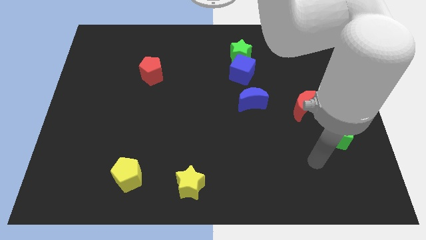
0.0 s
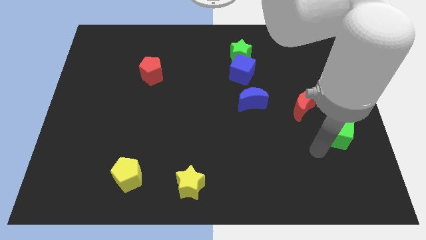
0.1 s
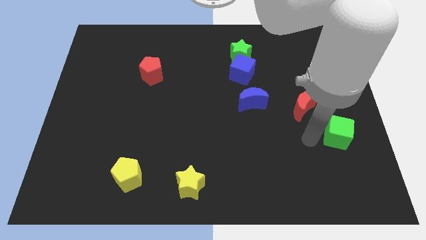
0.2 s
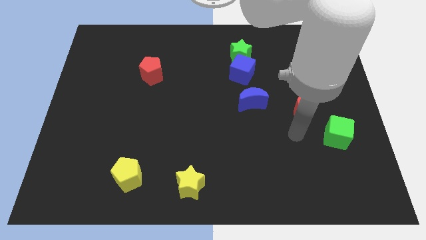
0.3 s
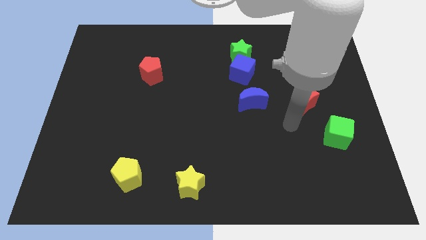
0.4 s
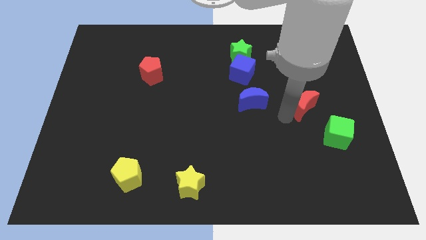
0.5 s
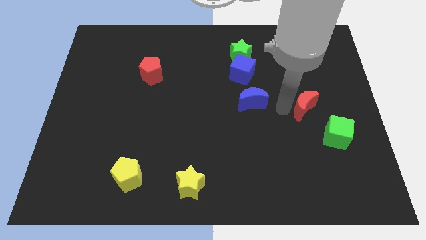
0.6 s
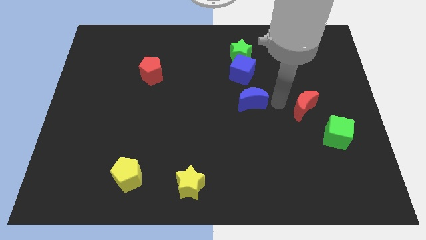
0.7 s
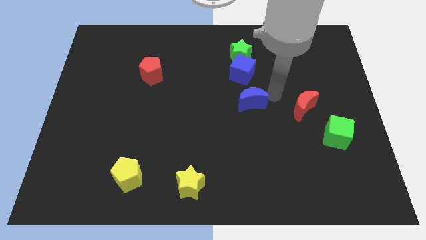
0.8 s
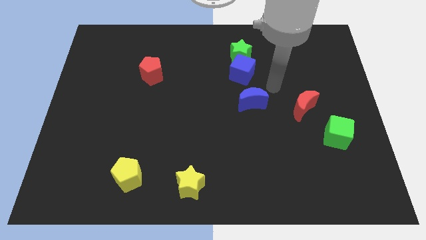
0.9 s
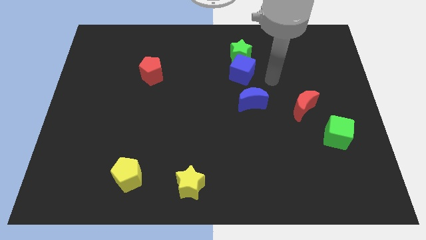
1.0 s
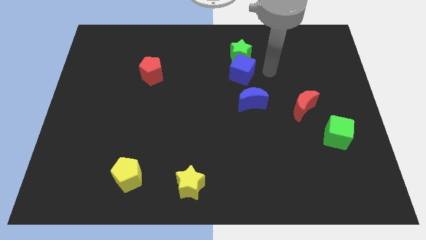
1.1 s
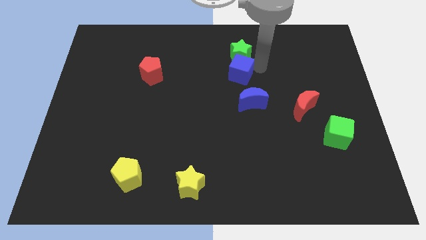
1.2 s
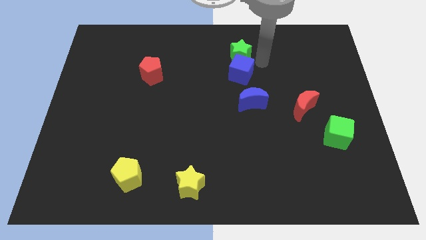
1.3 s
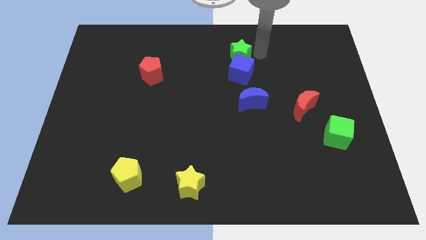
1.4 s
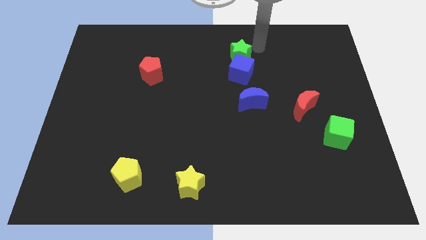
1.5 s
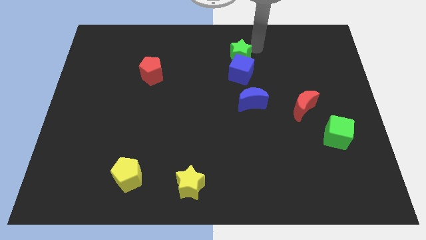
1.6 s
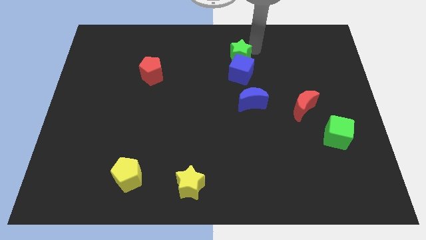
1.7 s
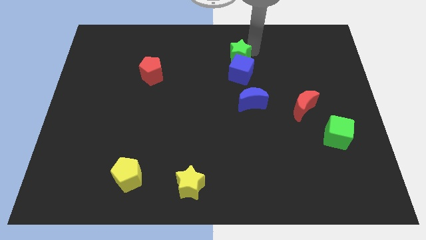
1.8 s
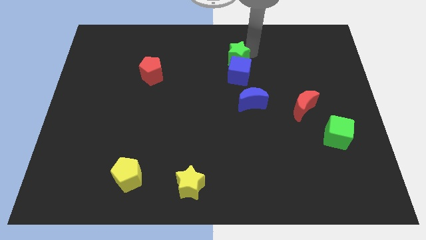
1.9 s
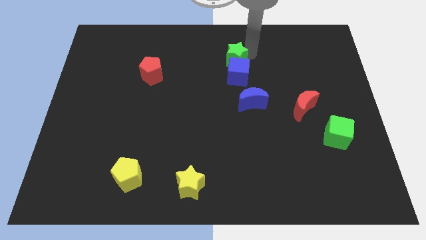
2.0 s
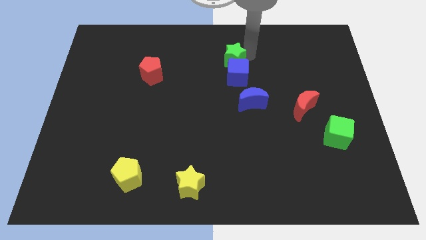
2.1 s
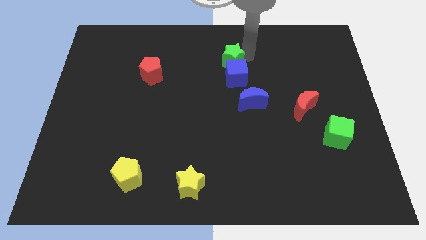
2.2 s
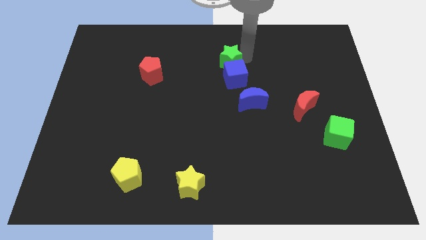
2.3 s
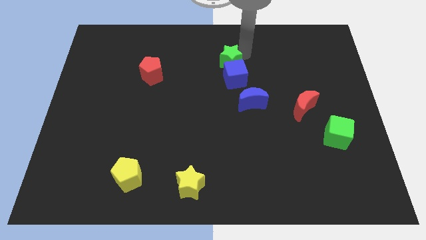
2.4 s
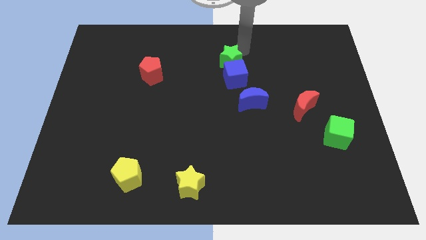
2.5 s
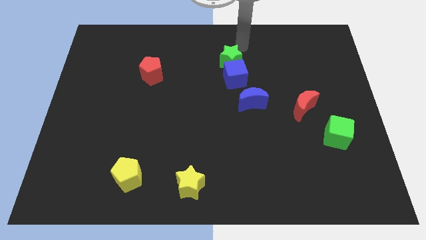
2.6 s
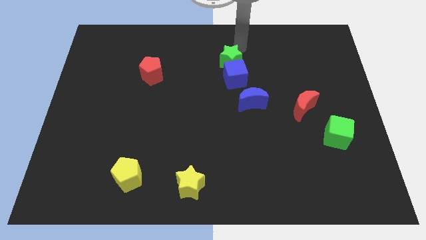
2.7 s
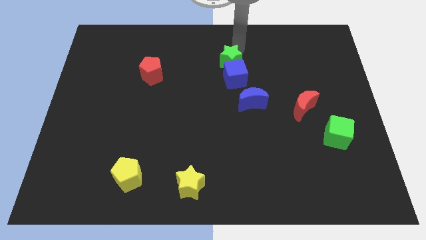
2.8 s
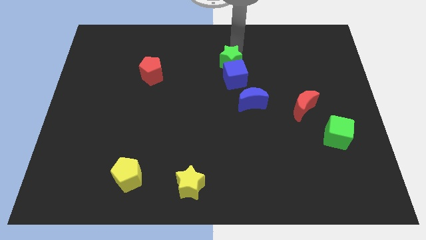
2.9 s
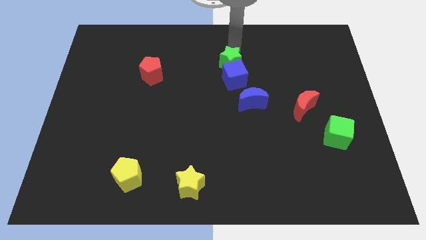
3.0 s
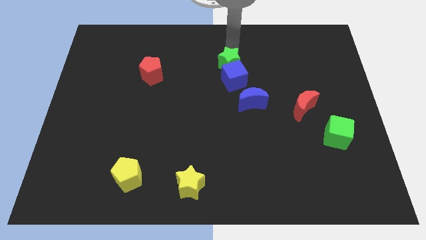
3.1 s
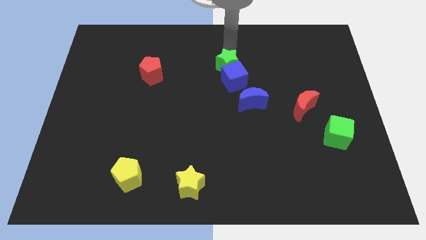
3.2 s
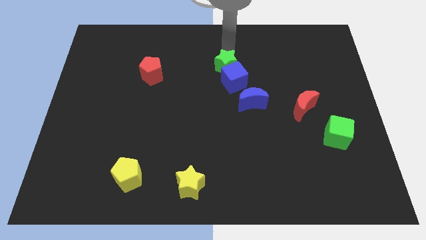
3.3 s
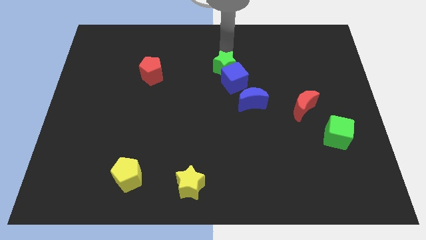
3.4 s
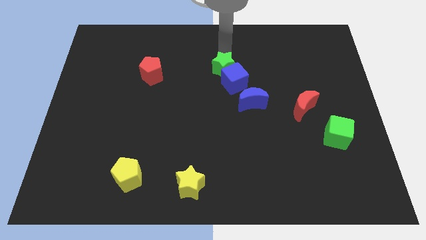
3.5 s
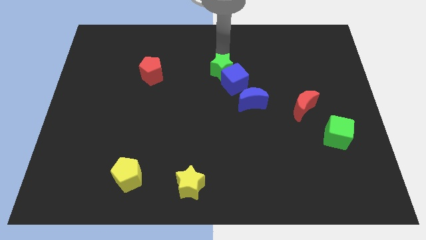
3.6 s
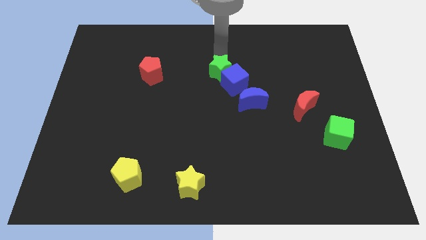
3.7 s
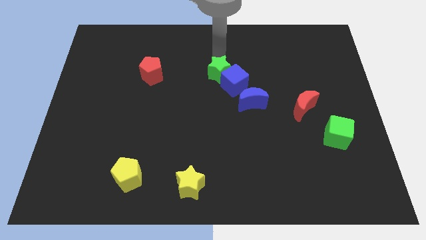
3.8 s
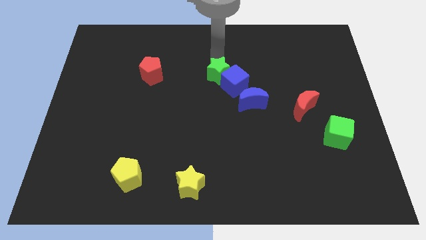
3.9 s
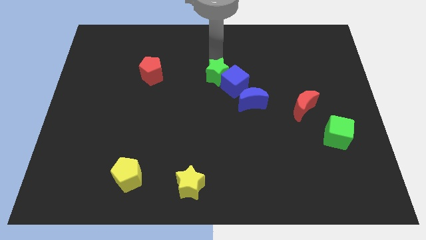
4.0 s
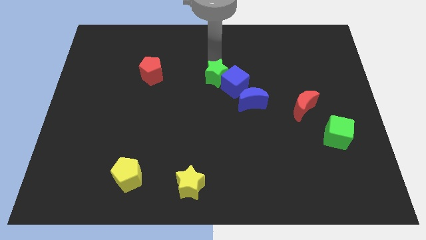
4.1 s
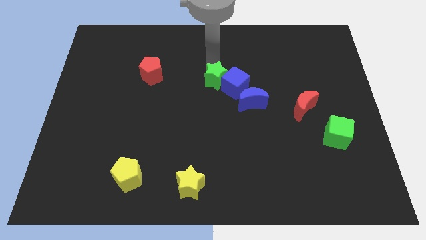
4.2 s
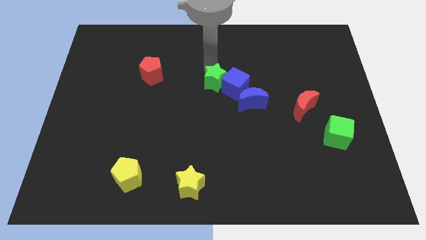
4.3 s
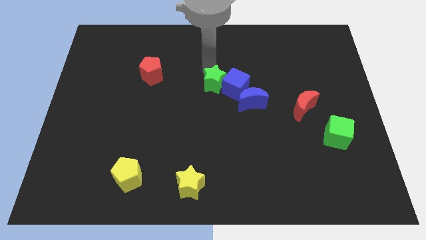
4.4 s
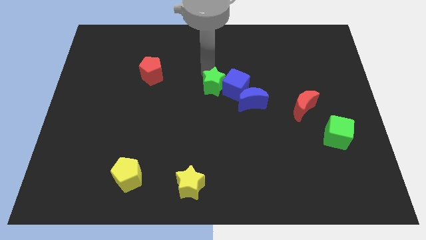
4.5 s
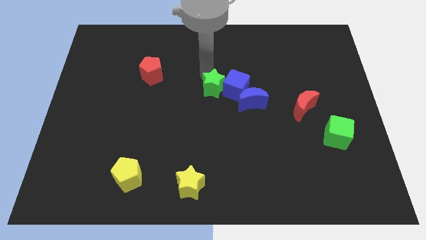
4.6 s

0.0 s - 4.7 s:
slide the green star just left of the blue moon

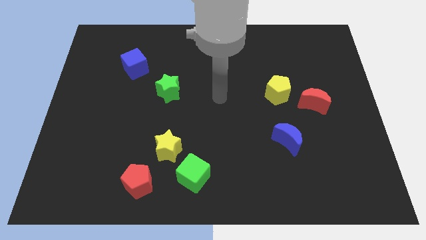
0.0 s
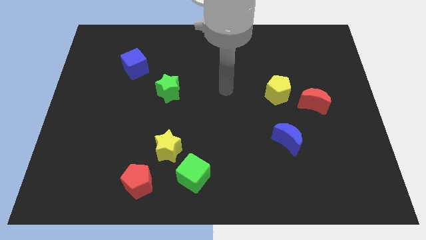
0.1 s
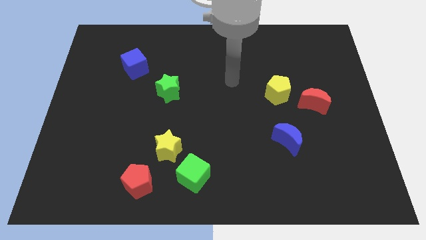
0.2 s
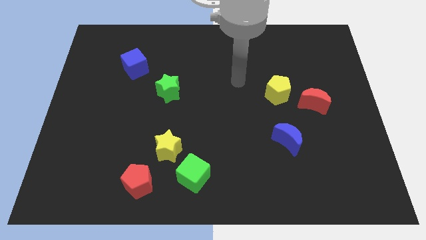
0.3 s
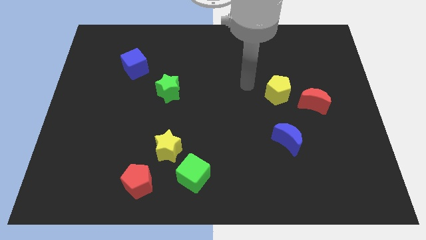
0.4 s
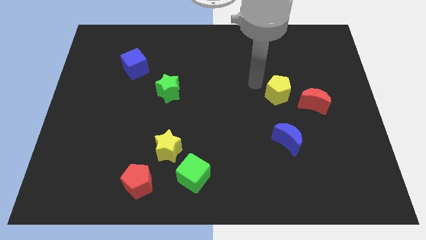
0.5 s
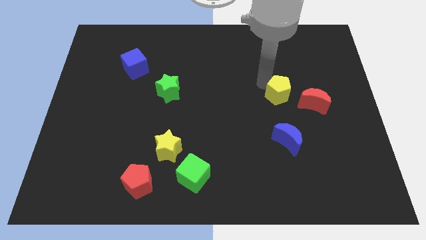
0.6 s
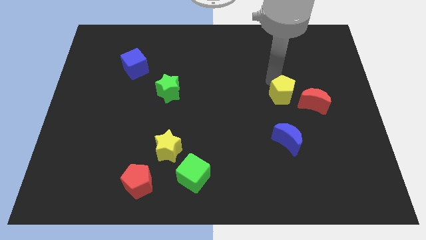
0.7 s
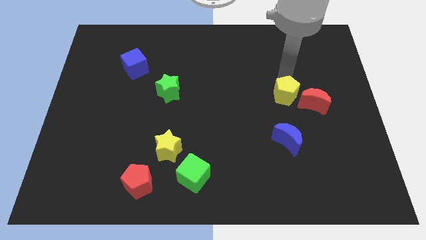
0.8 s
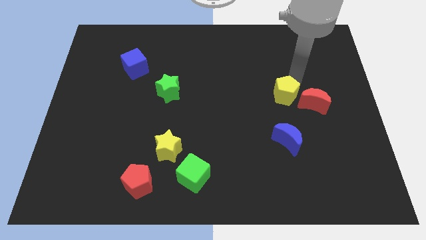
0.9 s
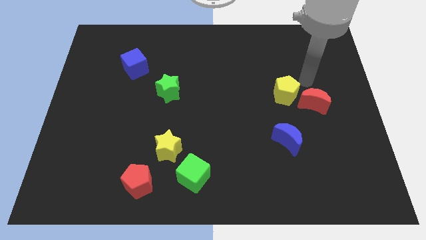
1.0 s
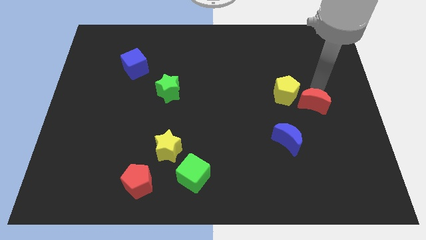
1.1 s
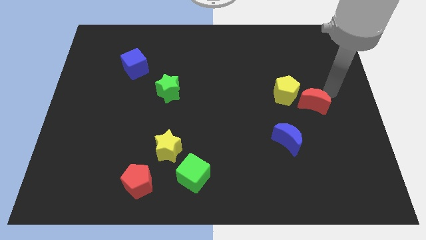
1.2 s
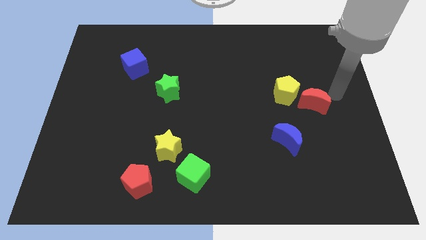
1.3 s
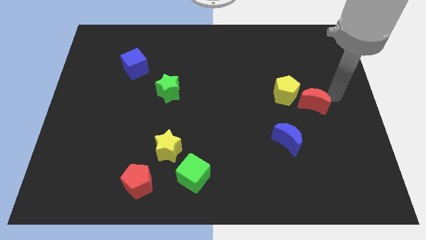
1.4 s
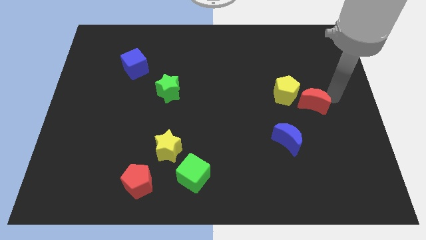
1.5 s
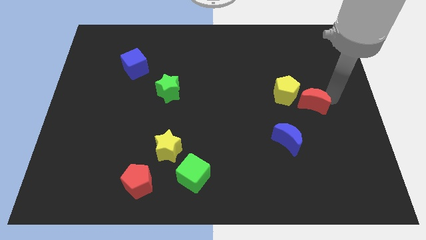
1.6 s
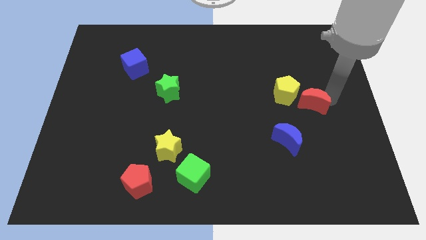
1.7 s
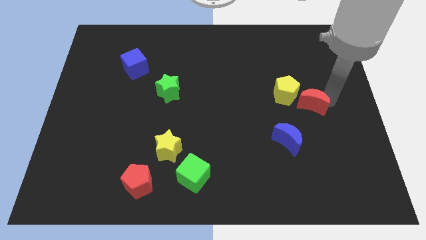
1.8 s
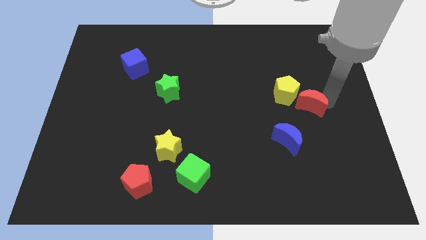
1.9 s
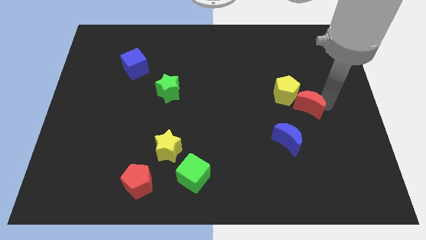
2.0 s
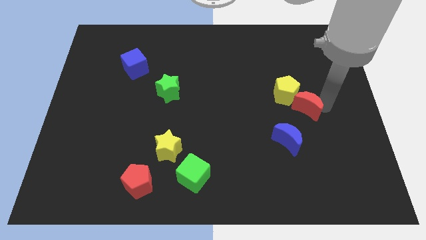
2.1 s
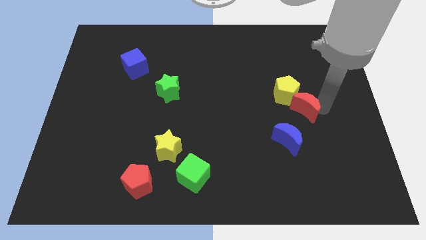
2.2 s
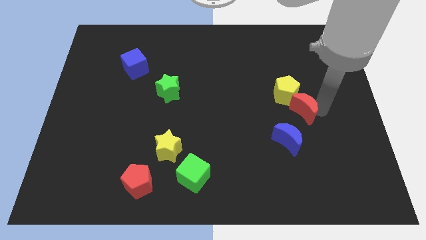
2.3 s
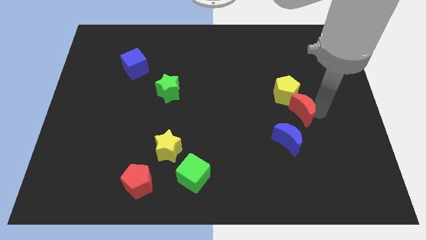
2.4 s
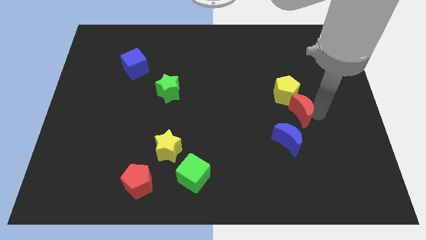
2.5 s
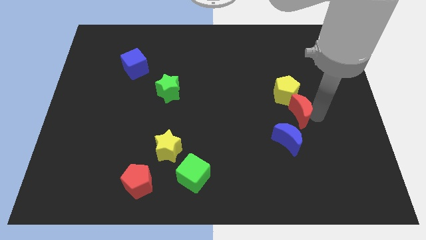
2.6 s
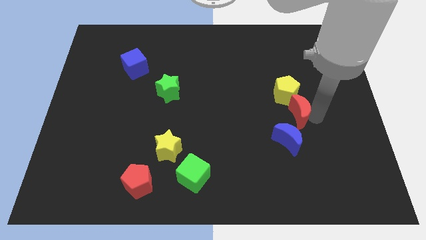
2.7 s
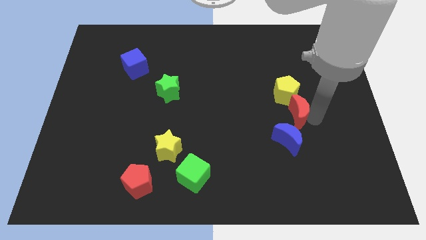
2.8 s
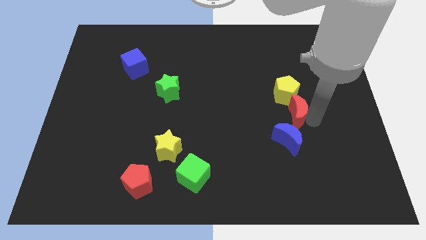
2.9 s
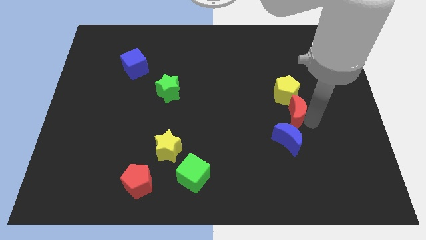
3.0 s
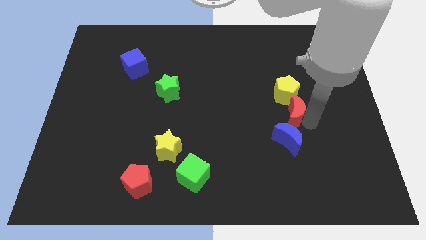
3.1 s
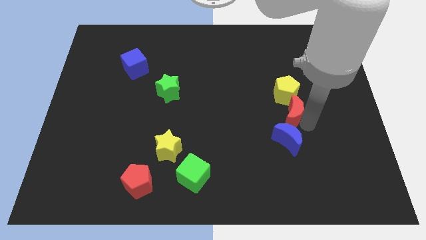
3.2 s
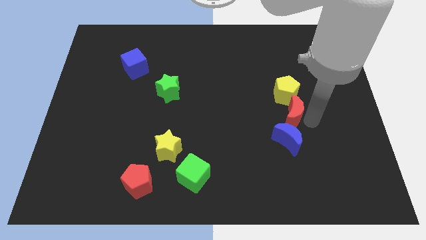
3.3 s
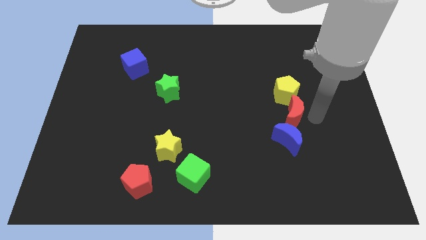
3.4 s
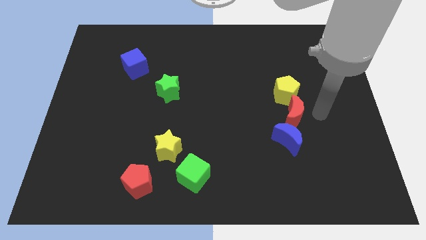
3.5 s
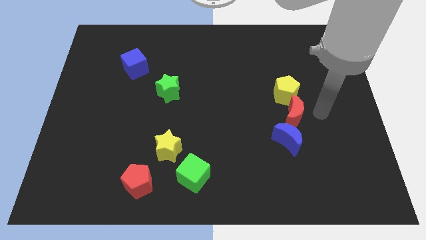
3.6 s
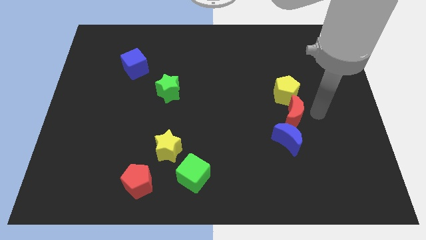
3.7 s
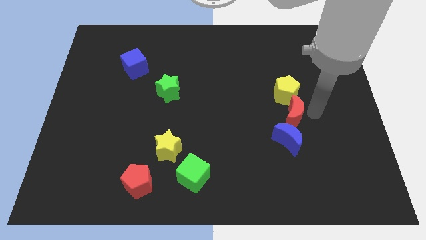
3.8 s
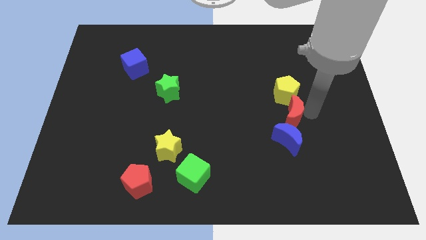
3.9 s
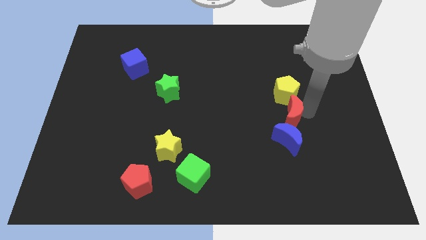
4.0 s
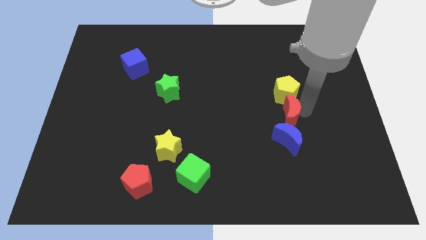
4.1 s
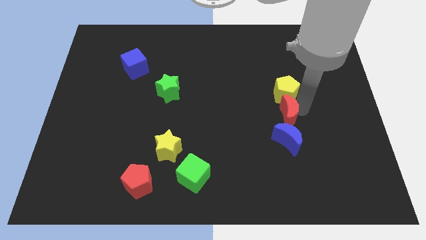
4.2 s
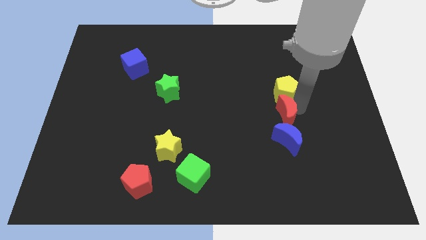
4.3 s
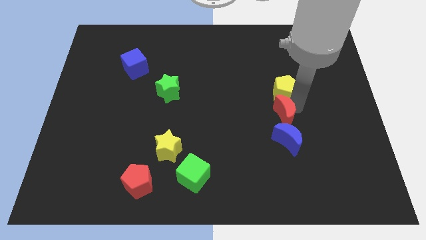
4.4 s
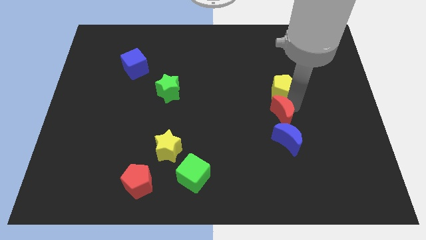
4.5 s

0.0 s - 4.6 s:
push the red moon to the top left side of the blue moon
